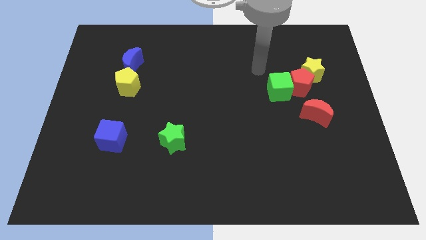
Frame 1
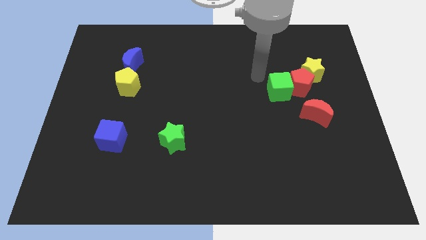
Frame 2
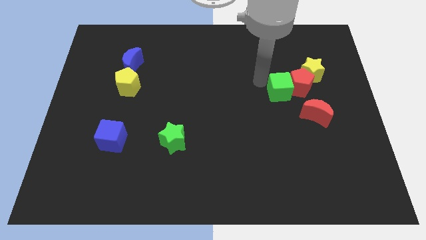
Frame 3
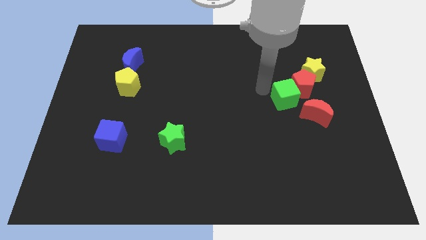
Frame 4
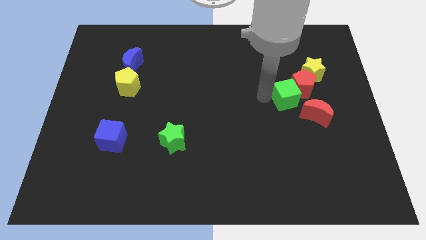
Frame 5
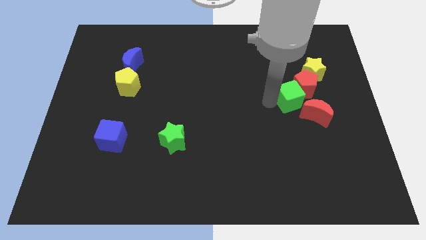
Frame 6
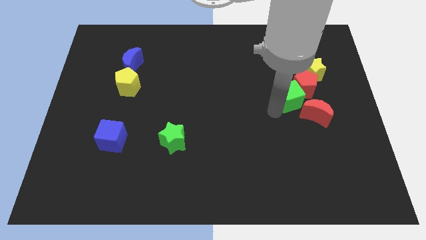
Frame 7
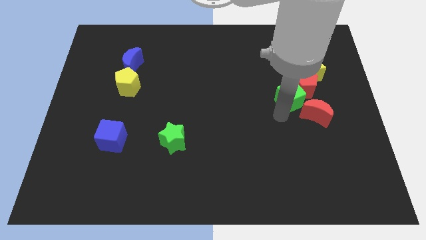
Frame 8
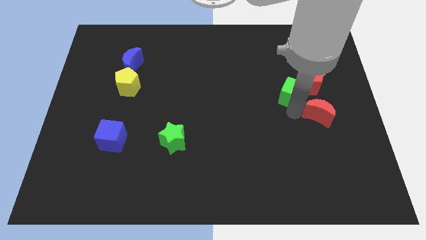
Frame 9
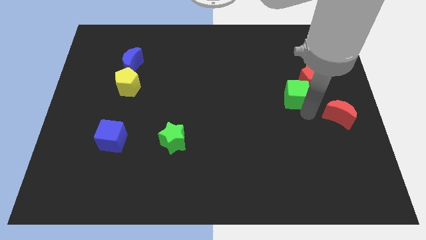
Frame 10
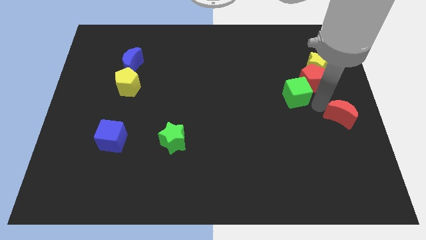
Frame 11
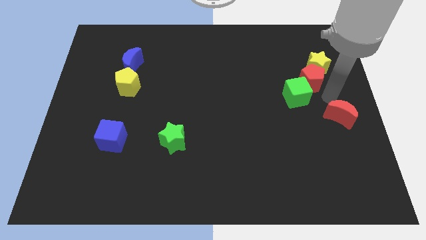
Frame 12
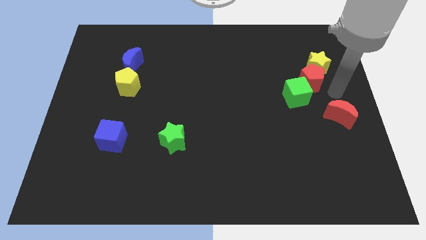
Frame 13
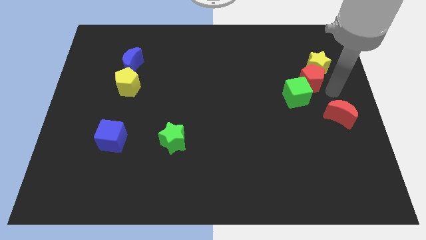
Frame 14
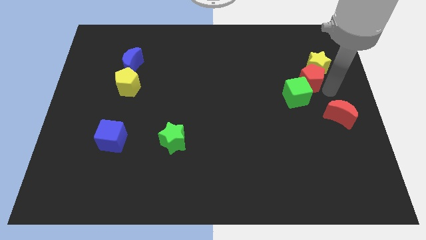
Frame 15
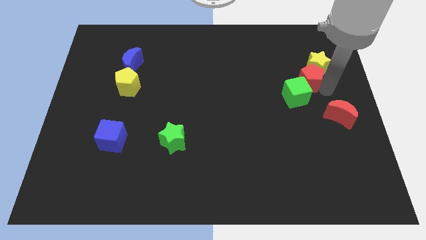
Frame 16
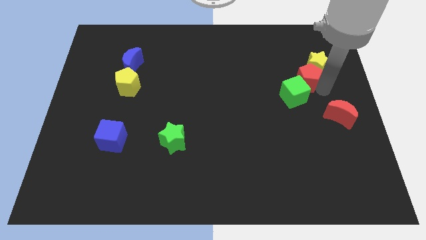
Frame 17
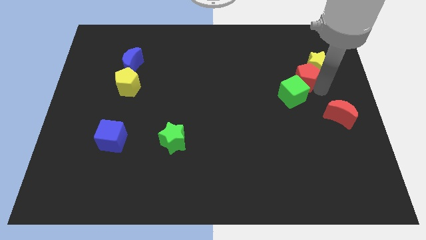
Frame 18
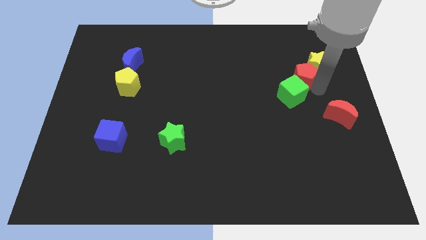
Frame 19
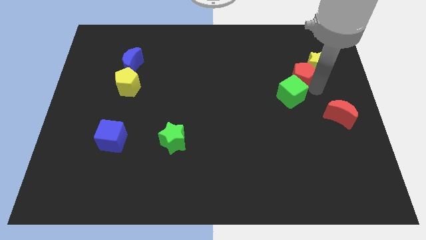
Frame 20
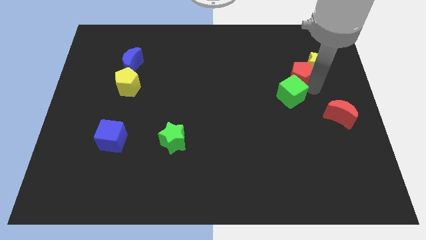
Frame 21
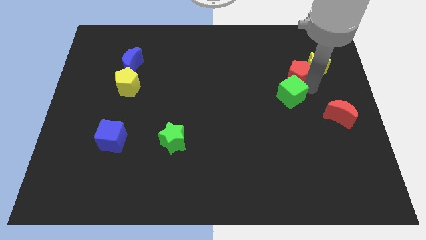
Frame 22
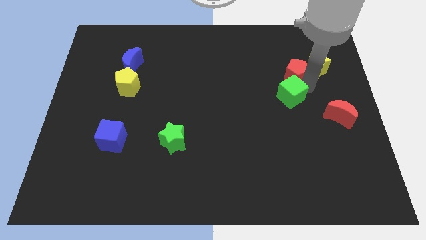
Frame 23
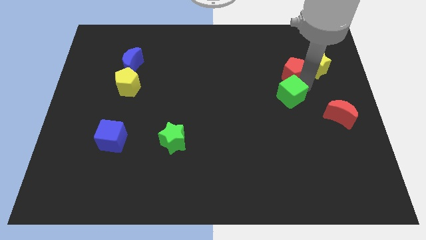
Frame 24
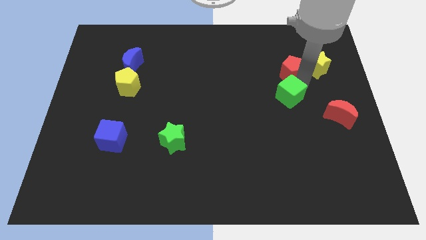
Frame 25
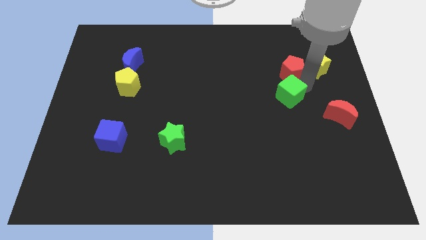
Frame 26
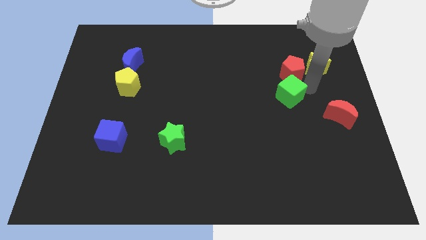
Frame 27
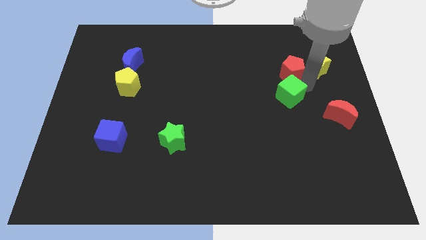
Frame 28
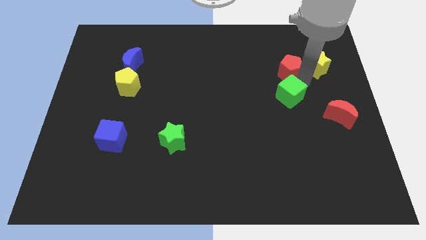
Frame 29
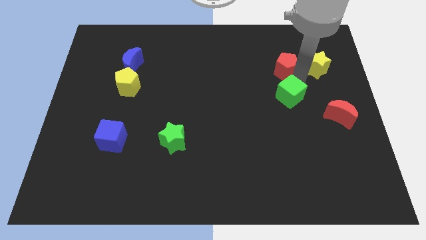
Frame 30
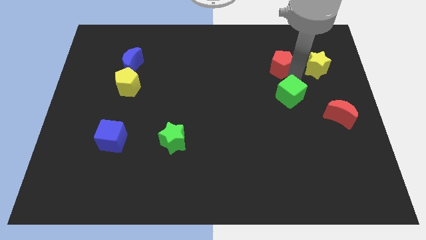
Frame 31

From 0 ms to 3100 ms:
pull the red pentagon apart from the group

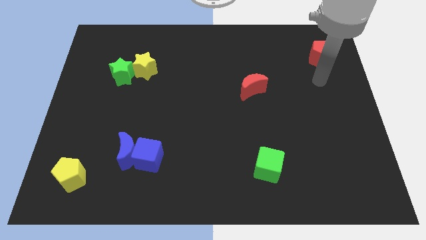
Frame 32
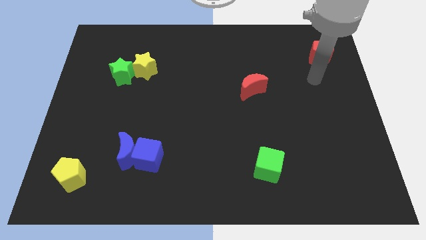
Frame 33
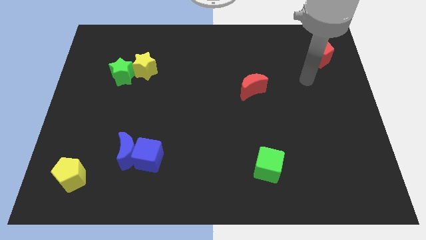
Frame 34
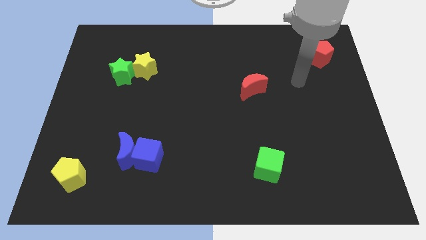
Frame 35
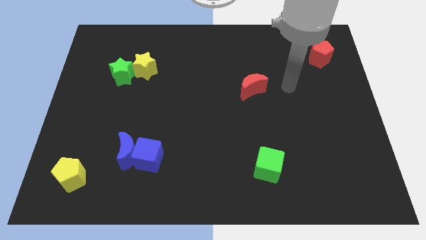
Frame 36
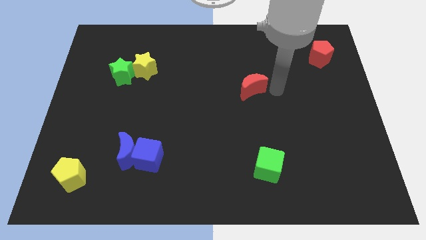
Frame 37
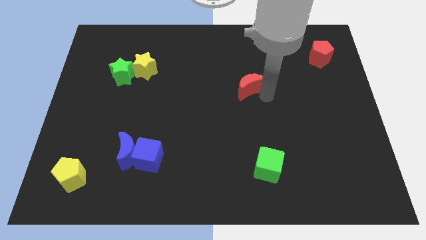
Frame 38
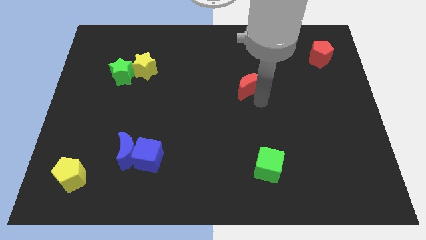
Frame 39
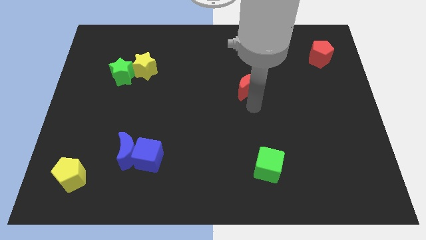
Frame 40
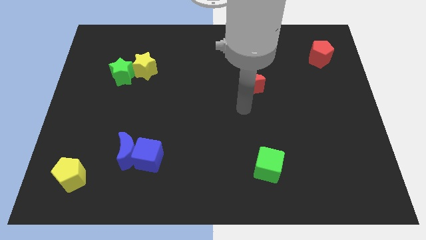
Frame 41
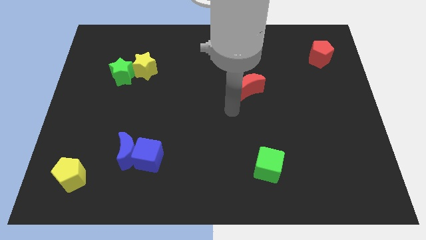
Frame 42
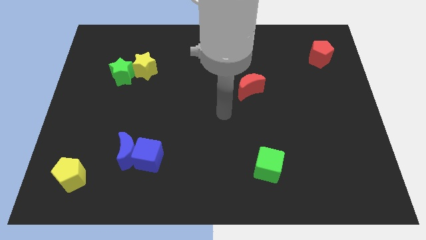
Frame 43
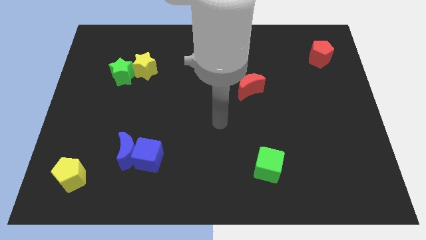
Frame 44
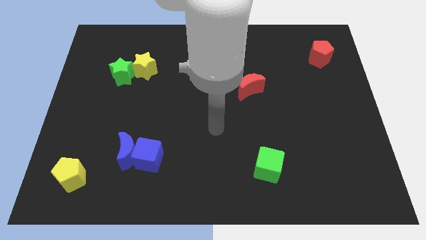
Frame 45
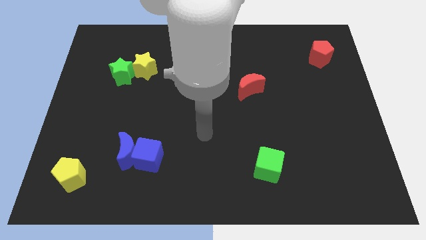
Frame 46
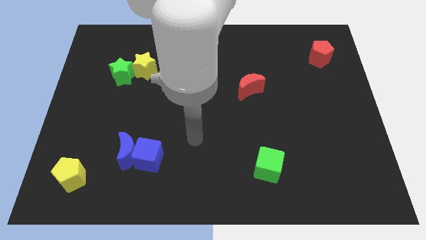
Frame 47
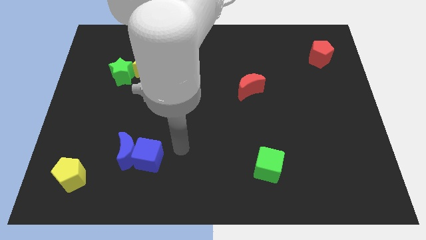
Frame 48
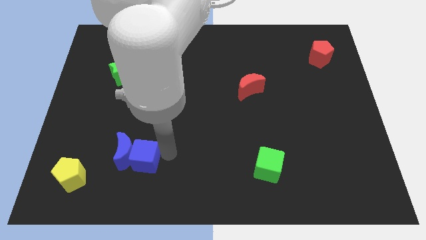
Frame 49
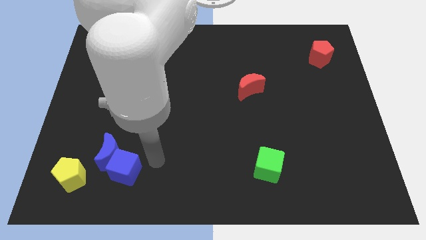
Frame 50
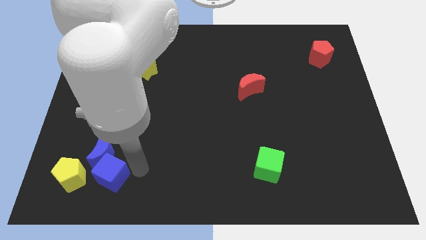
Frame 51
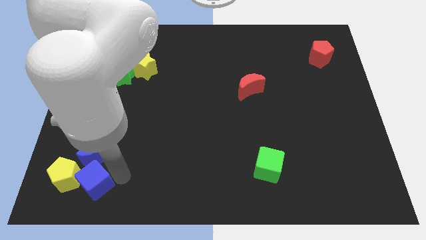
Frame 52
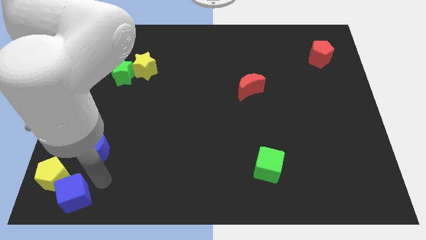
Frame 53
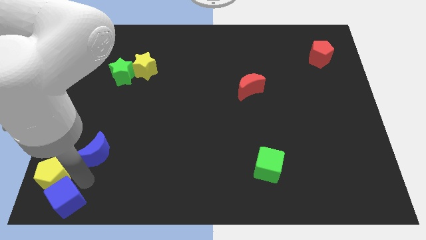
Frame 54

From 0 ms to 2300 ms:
separate the blue moon from the blue cube

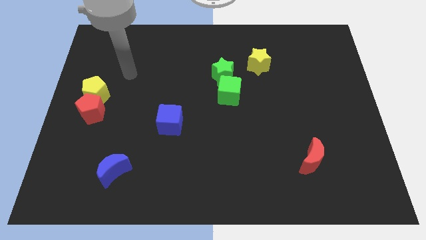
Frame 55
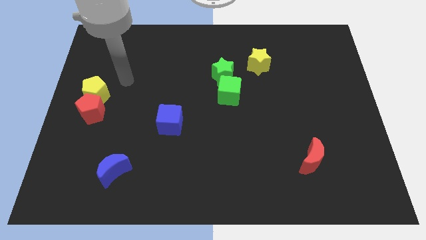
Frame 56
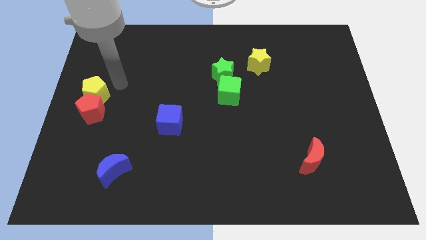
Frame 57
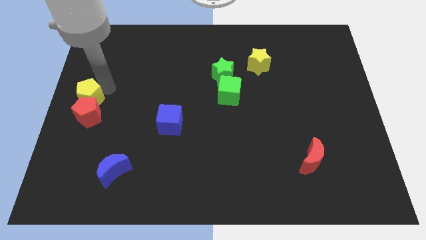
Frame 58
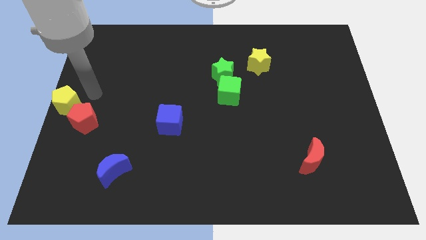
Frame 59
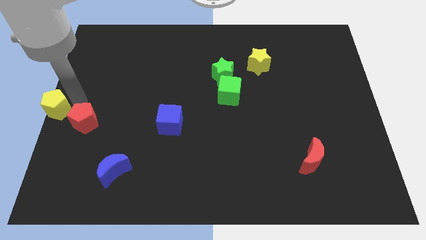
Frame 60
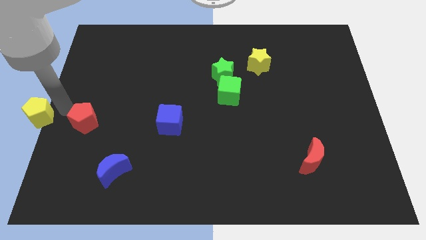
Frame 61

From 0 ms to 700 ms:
move the red pentagon away from the yellow pentagon

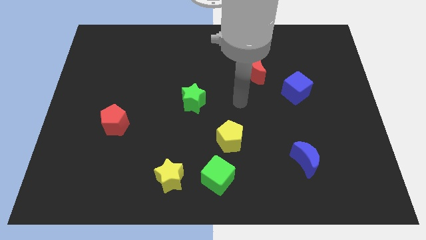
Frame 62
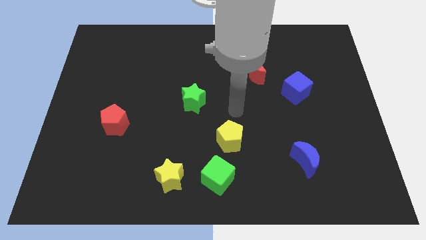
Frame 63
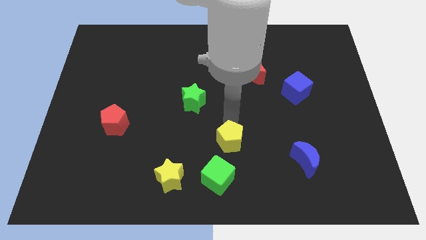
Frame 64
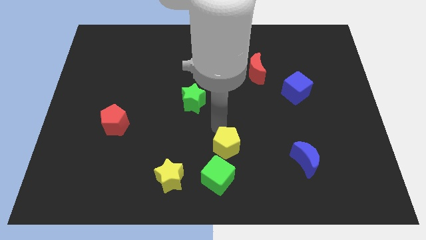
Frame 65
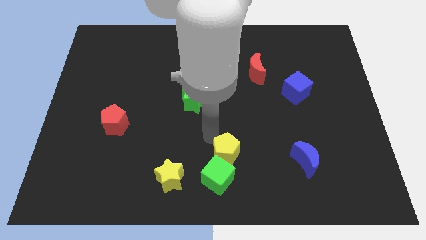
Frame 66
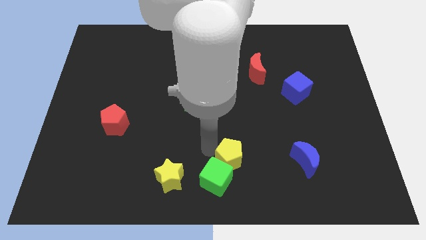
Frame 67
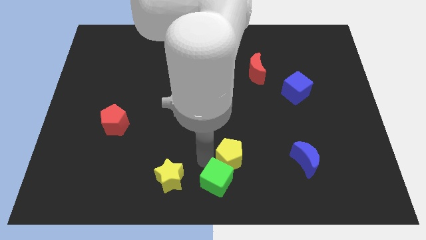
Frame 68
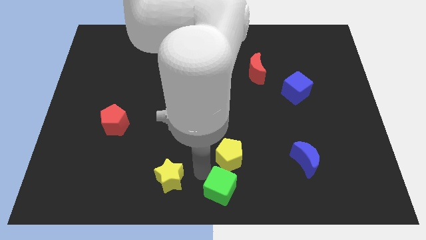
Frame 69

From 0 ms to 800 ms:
pull the yellow star apart from the green cube

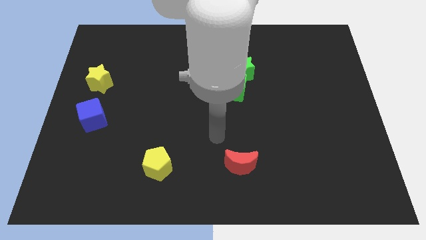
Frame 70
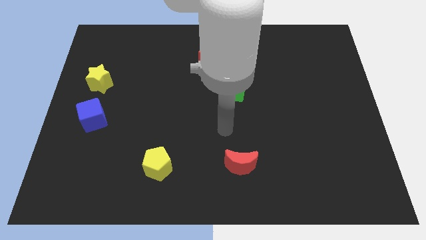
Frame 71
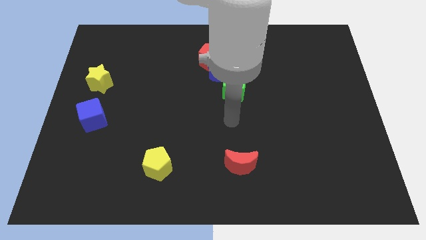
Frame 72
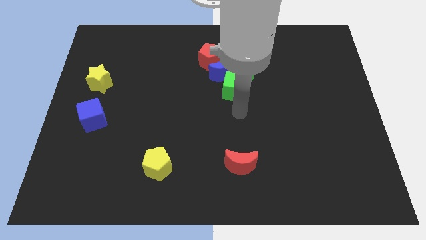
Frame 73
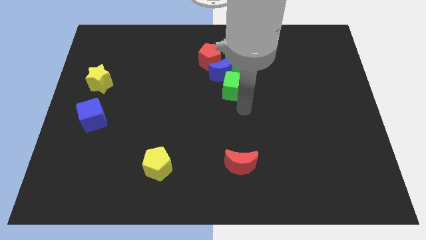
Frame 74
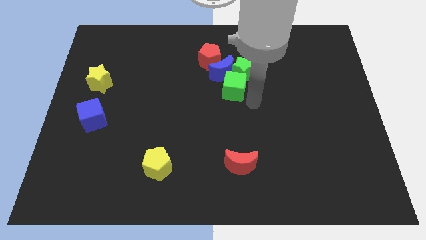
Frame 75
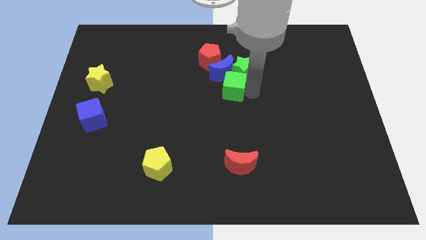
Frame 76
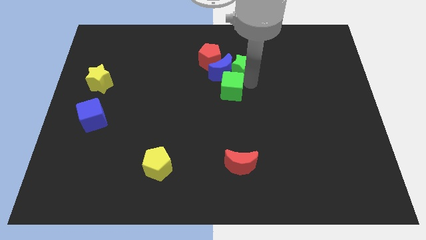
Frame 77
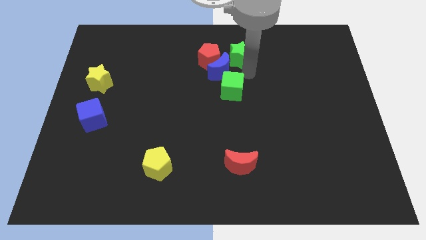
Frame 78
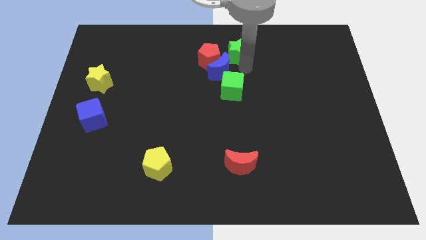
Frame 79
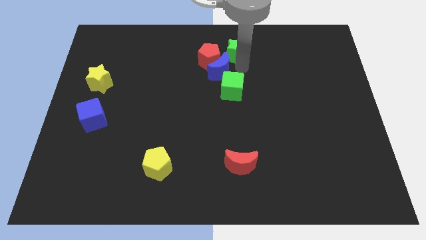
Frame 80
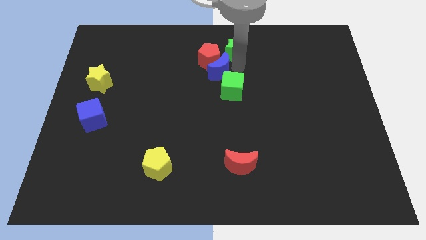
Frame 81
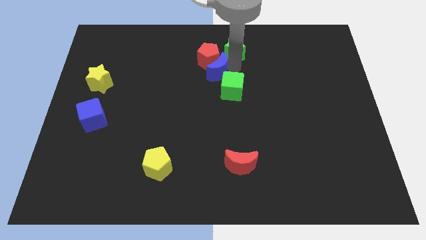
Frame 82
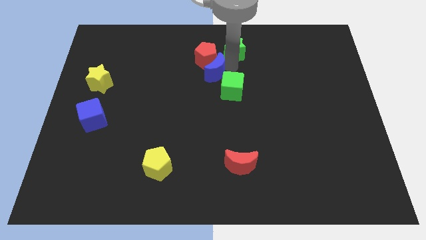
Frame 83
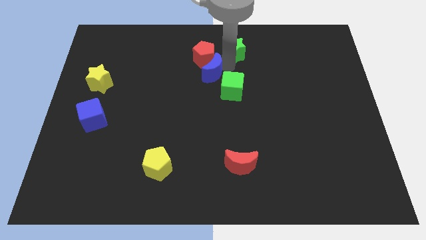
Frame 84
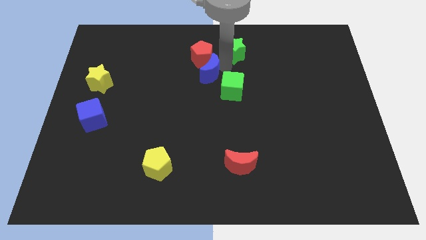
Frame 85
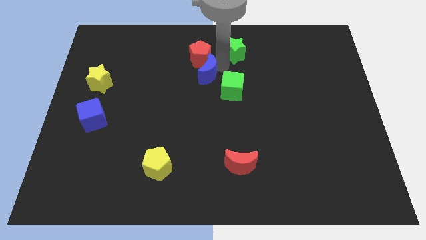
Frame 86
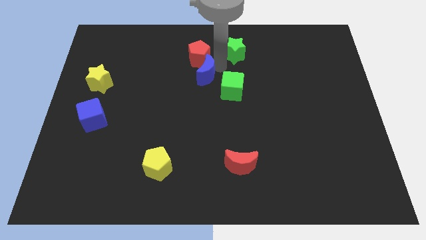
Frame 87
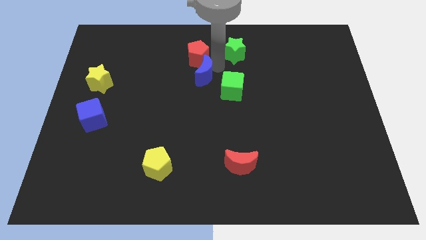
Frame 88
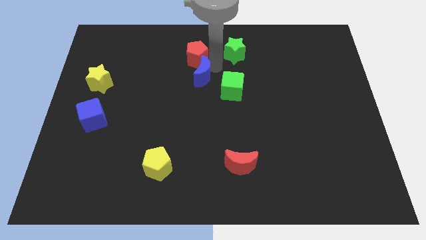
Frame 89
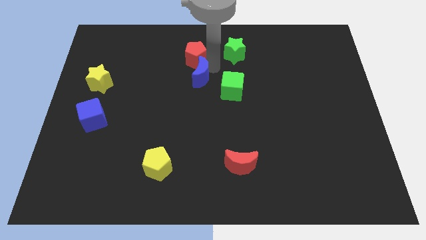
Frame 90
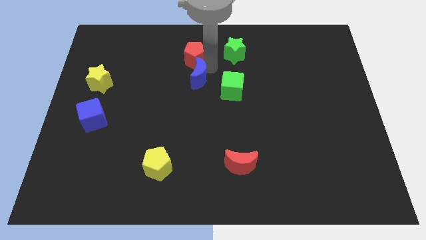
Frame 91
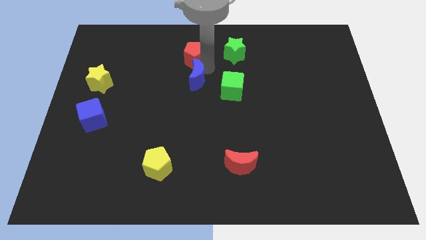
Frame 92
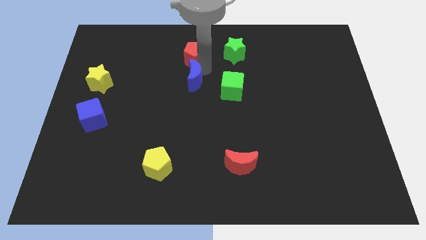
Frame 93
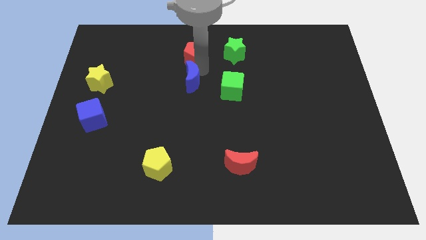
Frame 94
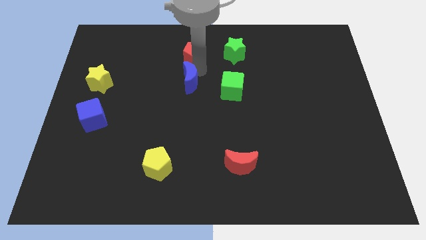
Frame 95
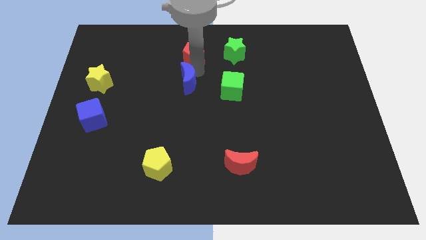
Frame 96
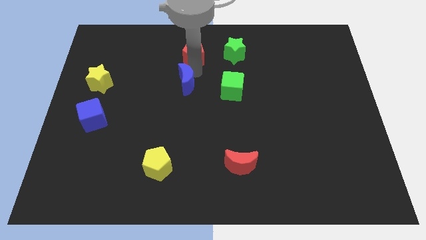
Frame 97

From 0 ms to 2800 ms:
pull the blue moon apart from the clump
